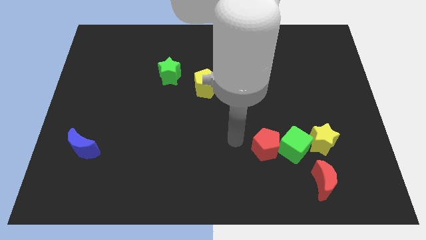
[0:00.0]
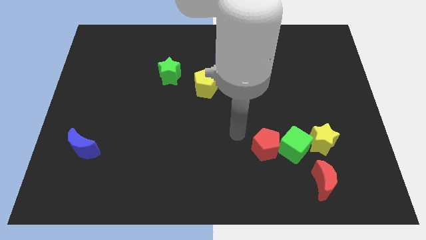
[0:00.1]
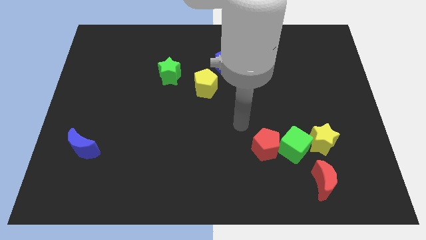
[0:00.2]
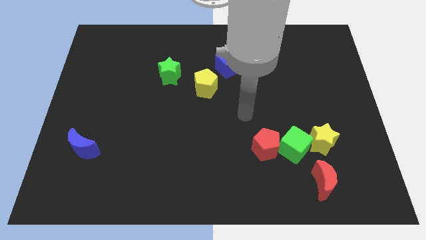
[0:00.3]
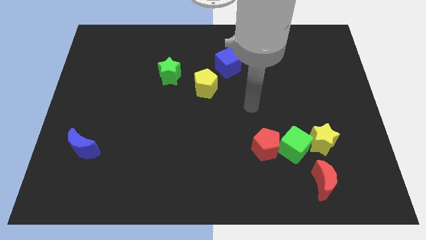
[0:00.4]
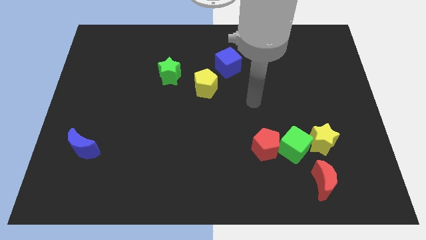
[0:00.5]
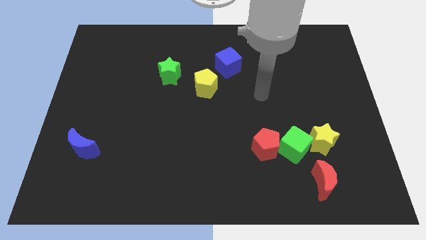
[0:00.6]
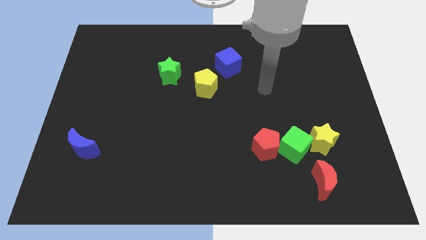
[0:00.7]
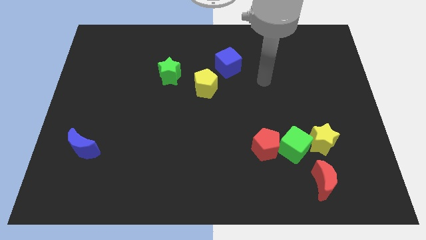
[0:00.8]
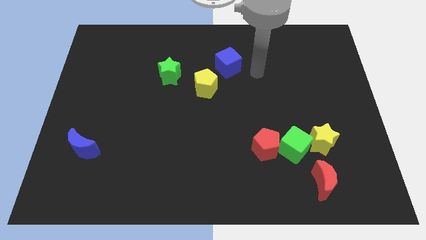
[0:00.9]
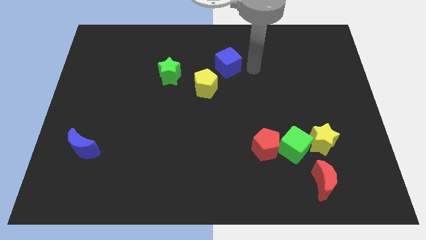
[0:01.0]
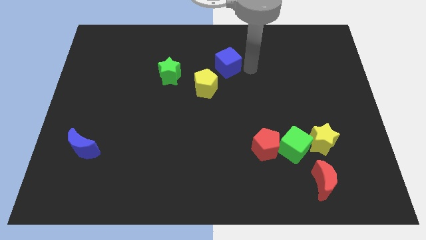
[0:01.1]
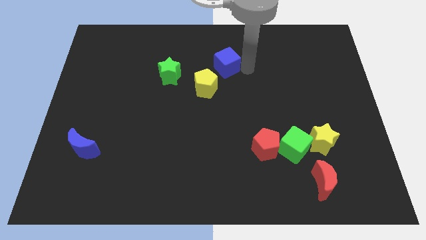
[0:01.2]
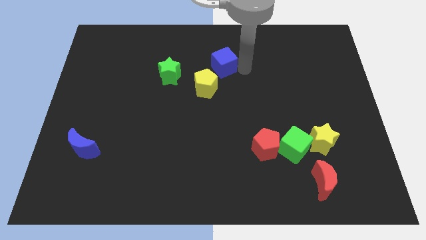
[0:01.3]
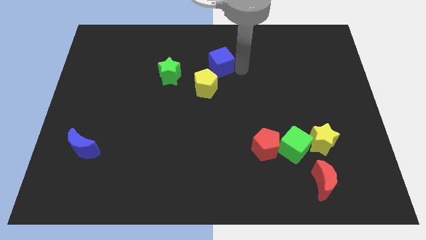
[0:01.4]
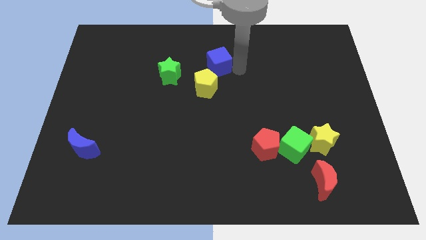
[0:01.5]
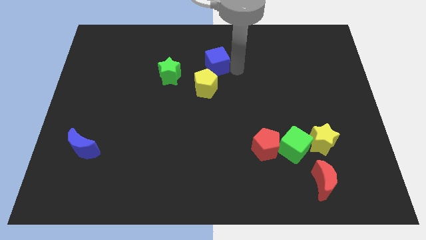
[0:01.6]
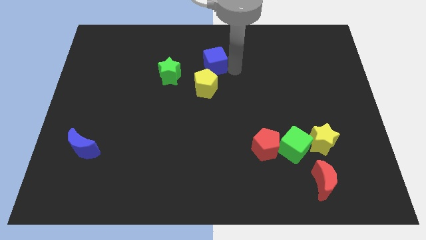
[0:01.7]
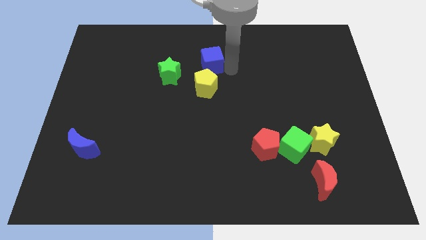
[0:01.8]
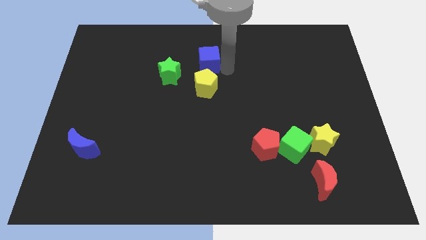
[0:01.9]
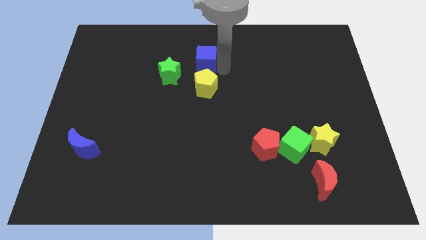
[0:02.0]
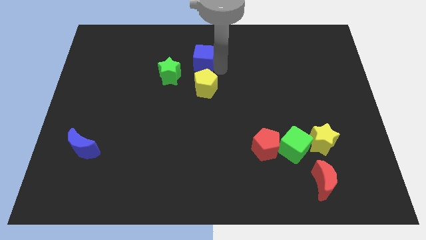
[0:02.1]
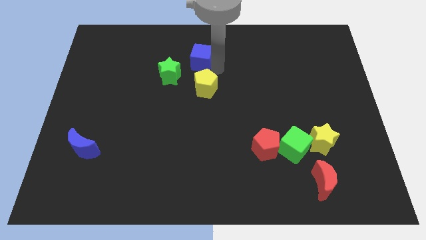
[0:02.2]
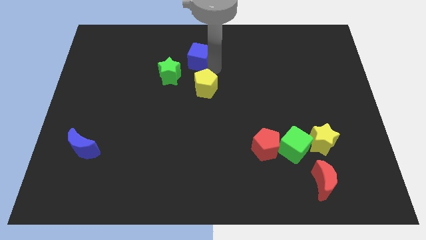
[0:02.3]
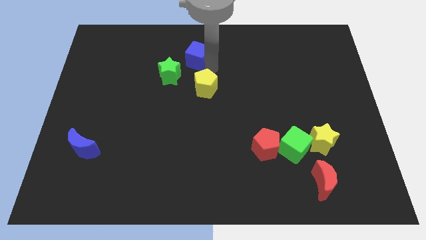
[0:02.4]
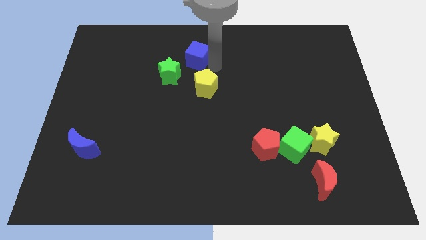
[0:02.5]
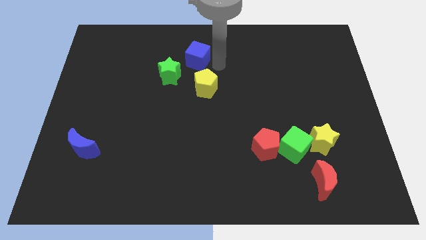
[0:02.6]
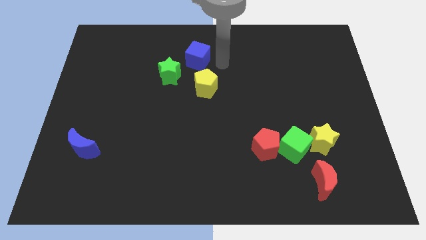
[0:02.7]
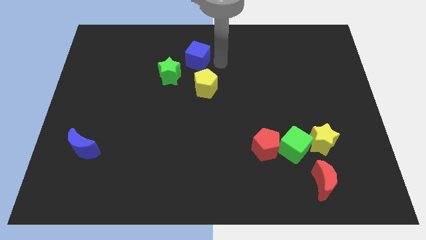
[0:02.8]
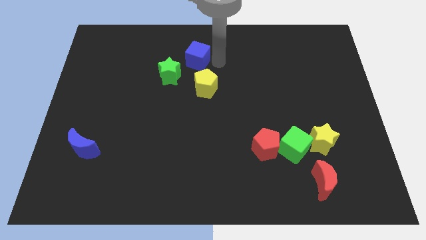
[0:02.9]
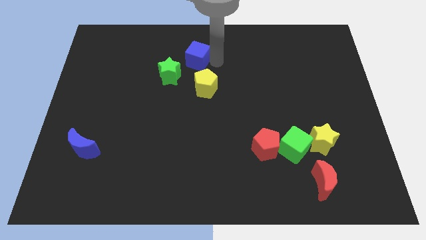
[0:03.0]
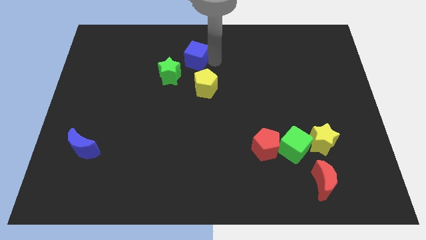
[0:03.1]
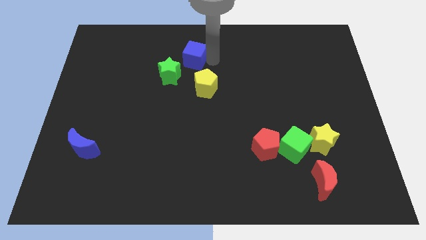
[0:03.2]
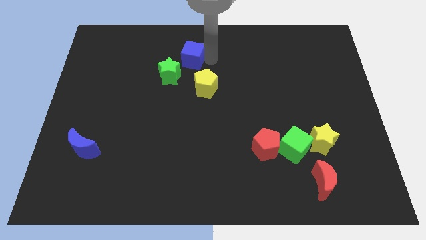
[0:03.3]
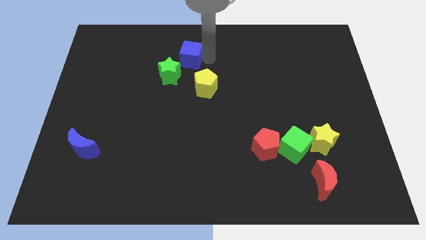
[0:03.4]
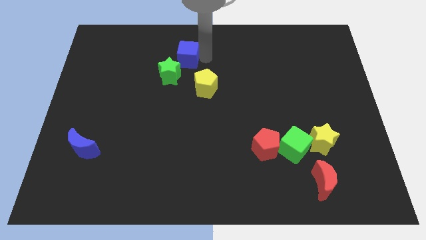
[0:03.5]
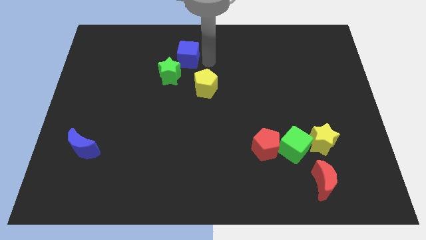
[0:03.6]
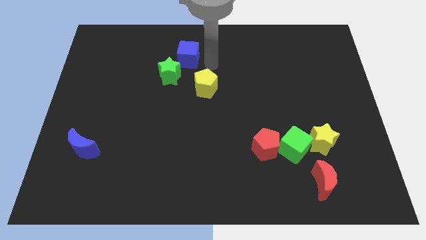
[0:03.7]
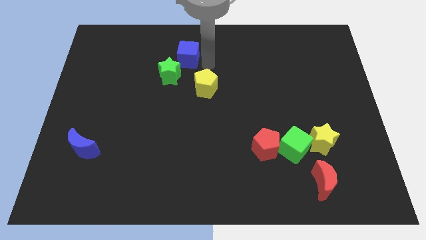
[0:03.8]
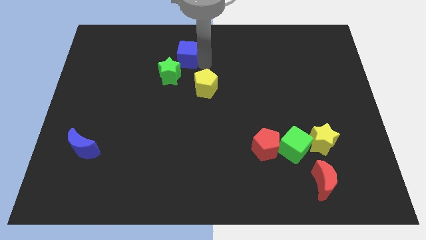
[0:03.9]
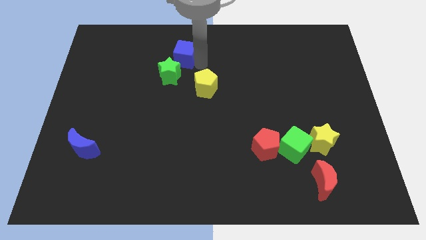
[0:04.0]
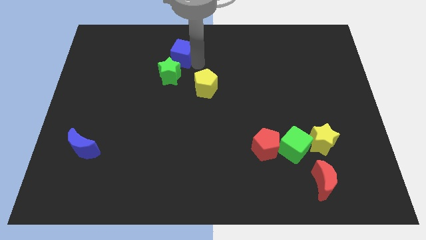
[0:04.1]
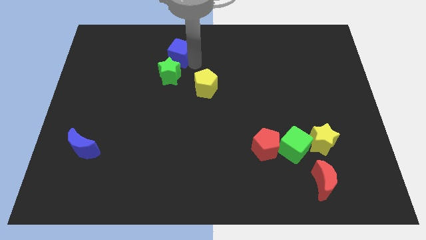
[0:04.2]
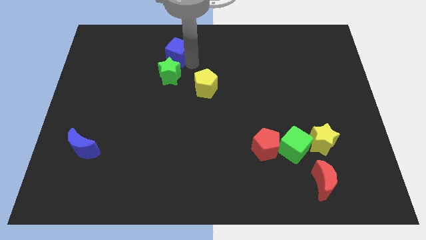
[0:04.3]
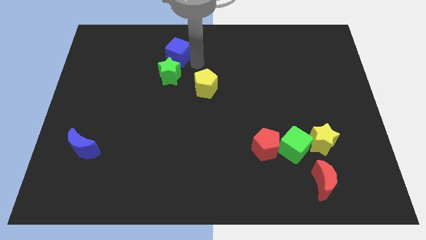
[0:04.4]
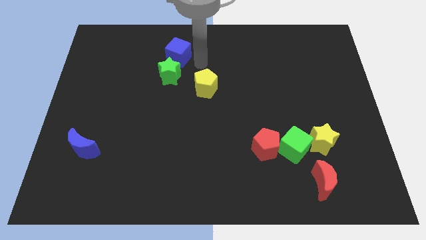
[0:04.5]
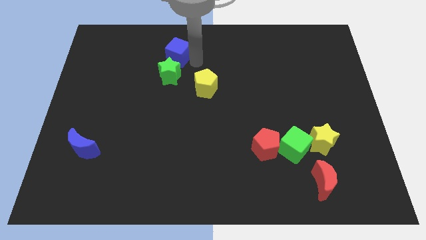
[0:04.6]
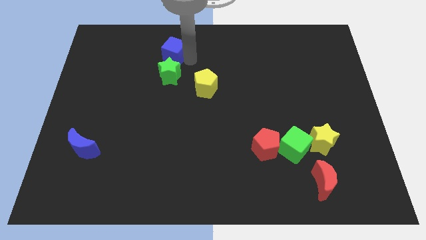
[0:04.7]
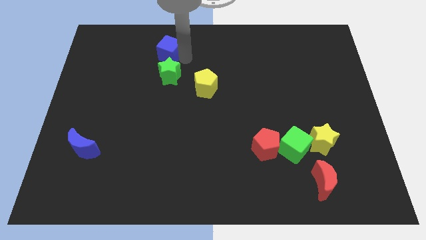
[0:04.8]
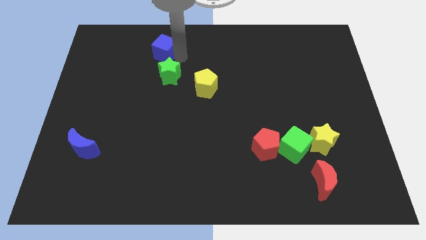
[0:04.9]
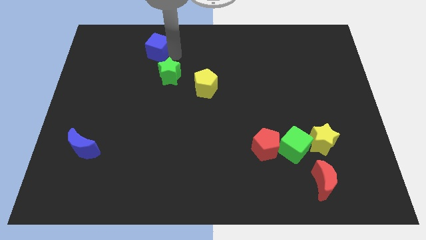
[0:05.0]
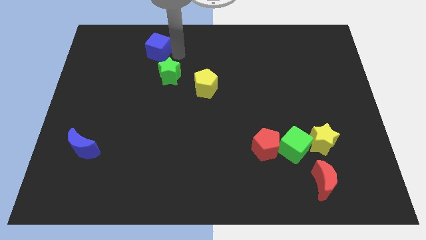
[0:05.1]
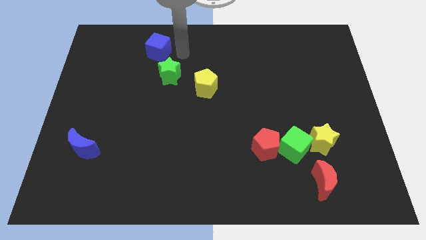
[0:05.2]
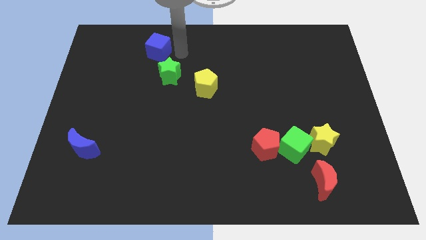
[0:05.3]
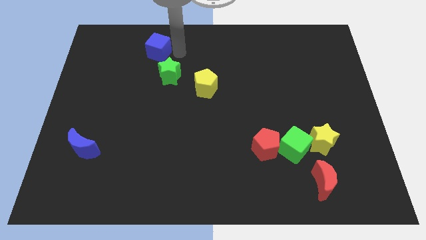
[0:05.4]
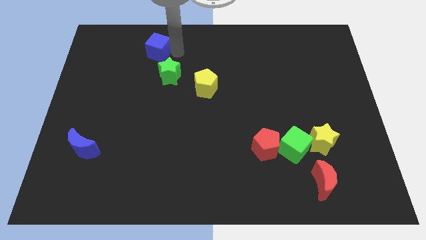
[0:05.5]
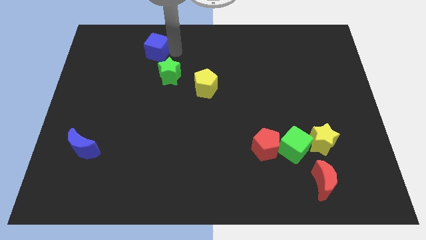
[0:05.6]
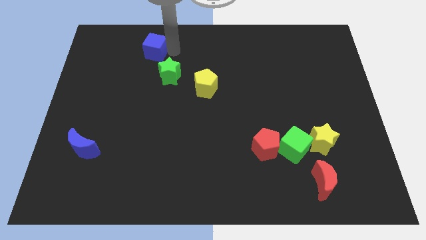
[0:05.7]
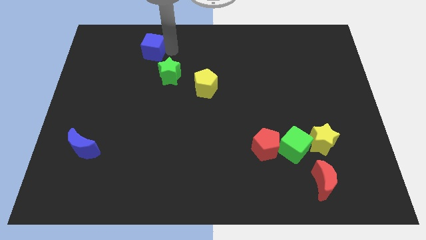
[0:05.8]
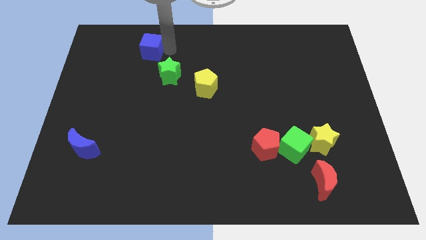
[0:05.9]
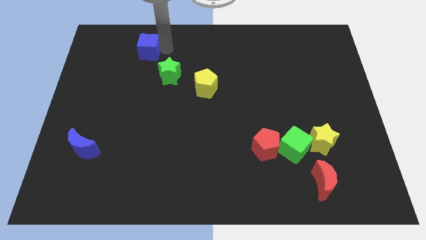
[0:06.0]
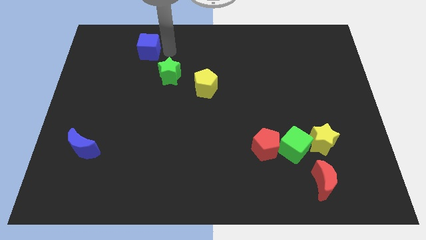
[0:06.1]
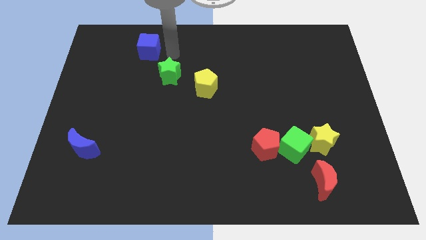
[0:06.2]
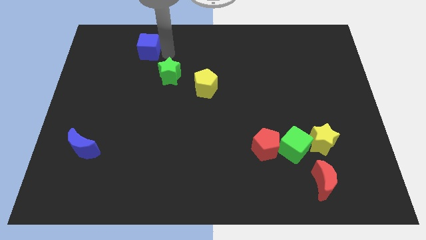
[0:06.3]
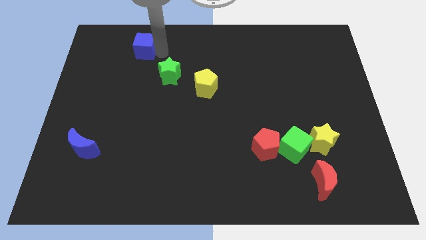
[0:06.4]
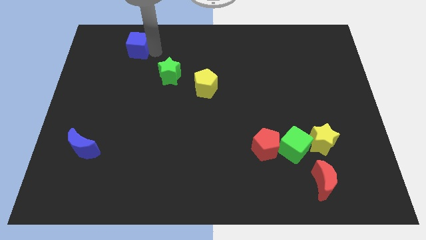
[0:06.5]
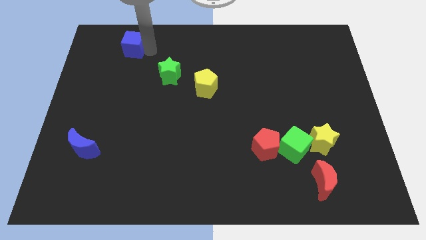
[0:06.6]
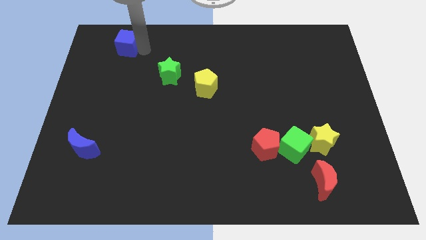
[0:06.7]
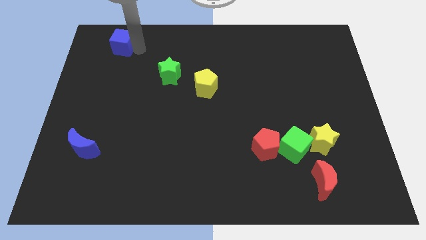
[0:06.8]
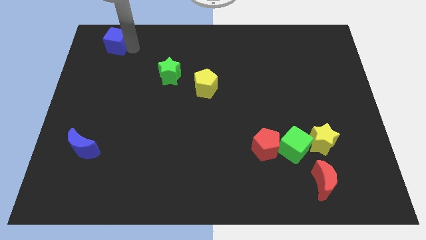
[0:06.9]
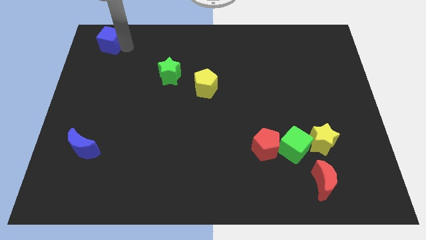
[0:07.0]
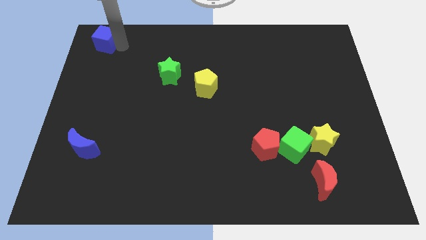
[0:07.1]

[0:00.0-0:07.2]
push the blue cube to the upper left corner
